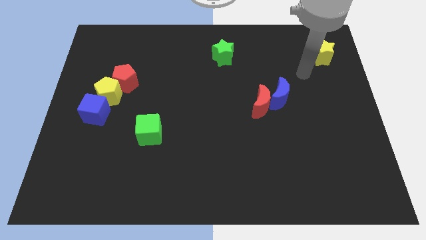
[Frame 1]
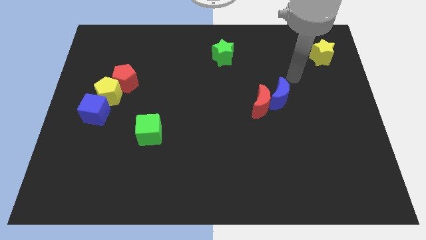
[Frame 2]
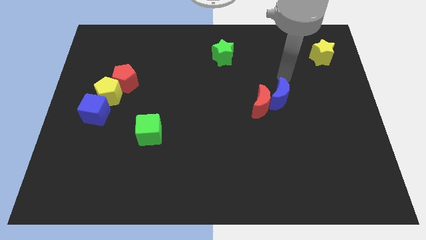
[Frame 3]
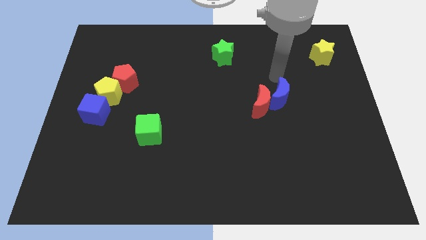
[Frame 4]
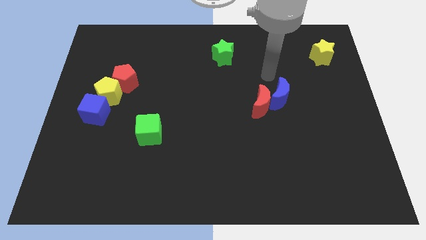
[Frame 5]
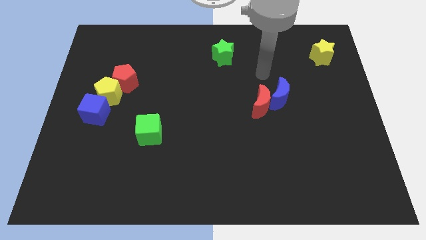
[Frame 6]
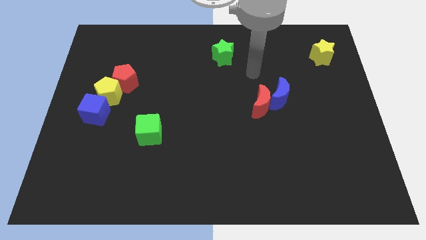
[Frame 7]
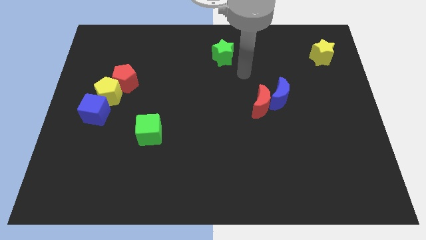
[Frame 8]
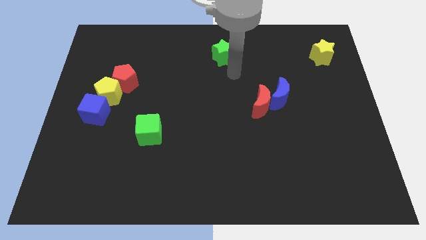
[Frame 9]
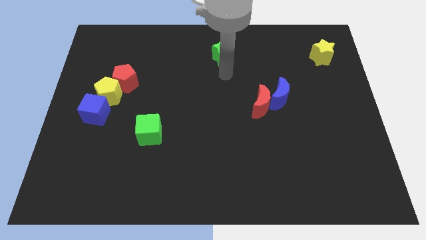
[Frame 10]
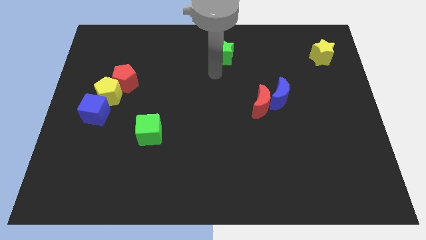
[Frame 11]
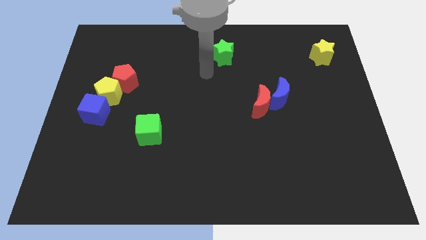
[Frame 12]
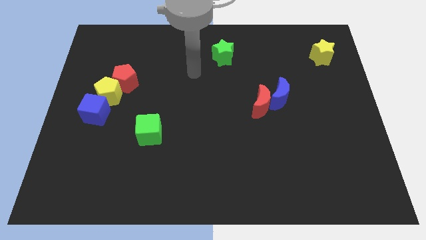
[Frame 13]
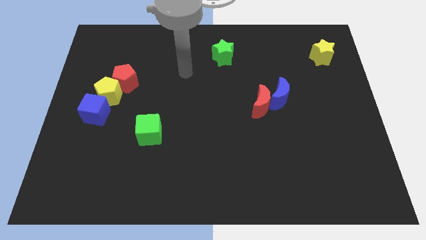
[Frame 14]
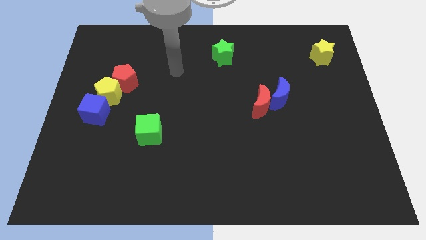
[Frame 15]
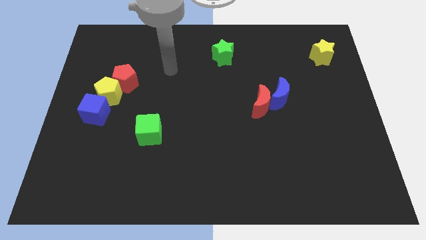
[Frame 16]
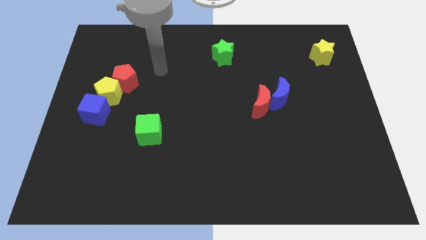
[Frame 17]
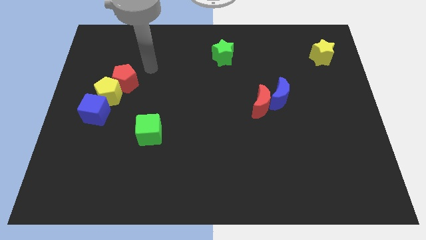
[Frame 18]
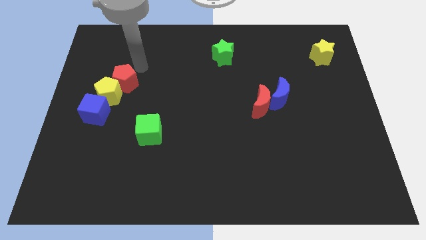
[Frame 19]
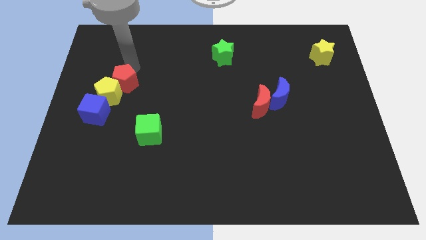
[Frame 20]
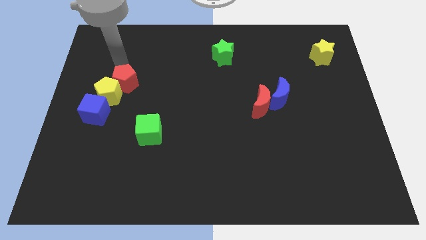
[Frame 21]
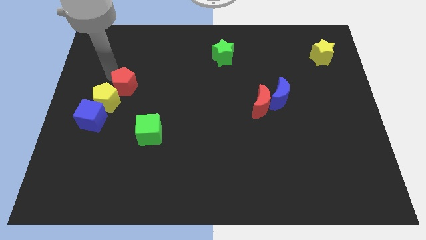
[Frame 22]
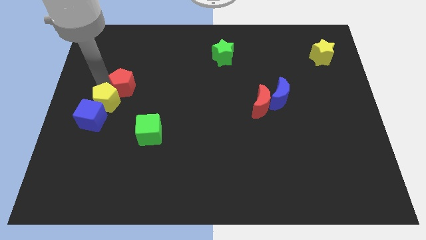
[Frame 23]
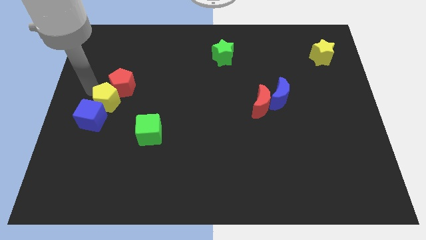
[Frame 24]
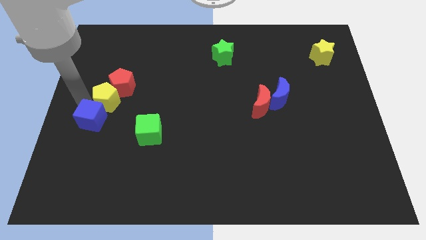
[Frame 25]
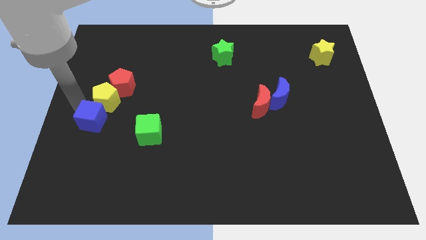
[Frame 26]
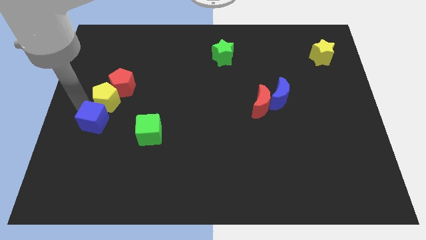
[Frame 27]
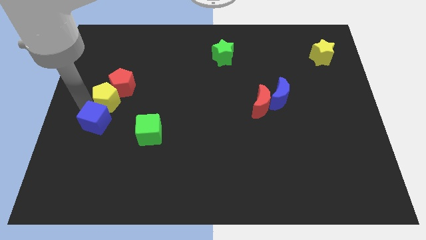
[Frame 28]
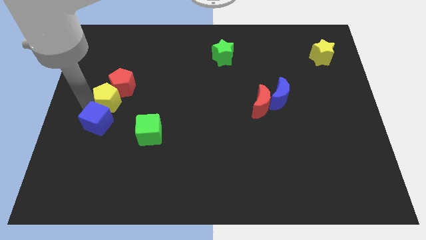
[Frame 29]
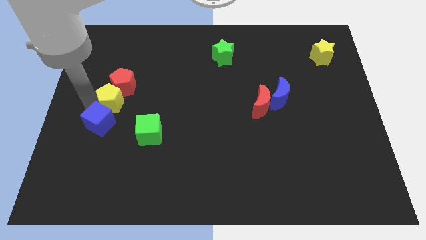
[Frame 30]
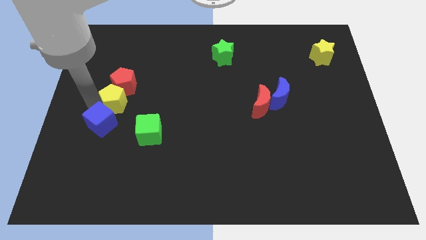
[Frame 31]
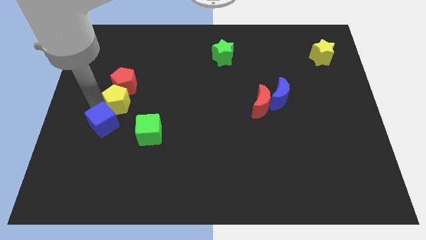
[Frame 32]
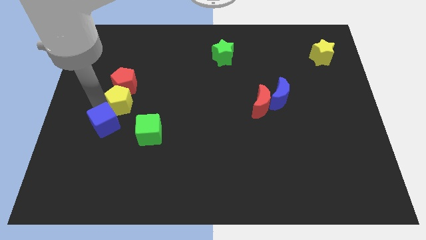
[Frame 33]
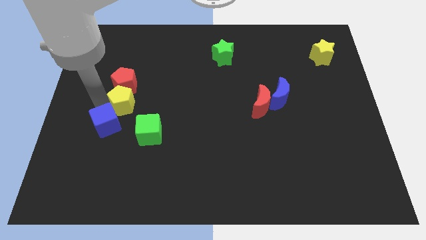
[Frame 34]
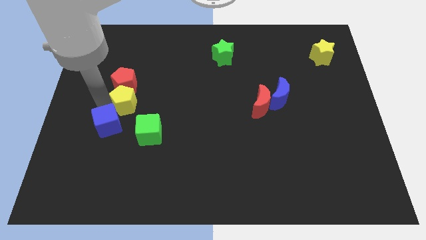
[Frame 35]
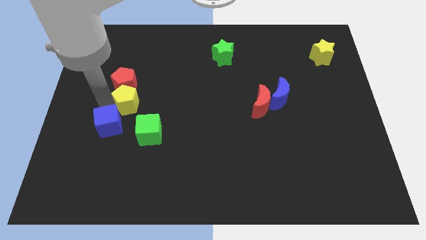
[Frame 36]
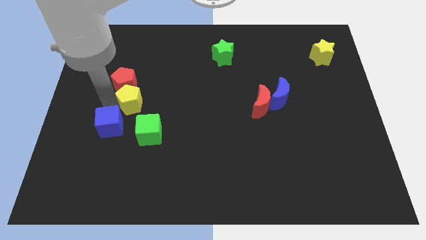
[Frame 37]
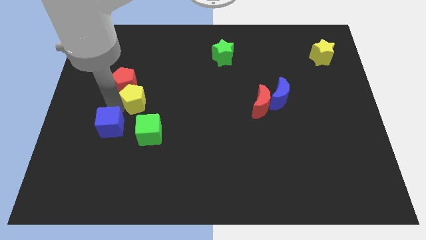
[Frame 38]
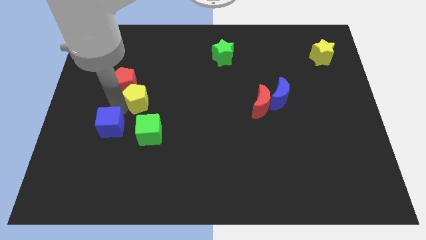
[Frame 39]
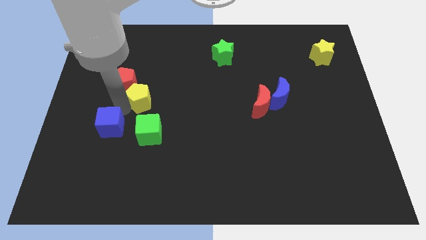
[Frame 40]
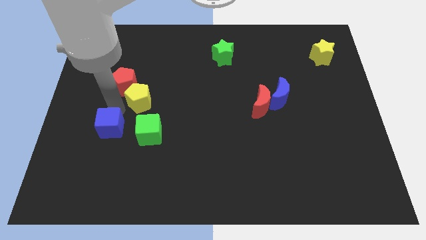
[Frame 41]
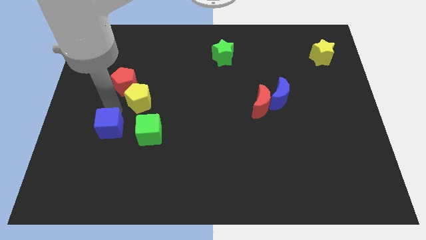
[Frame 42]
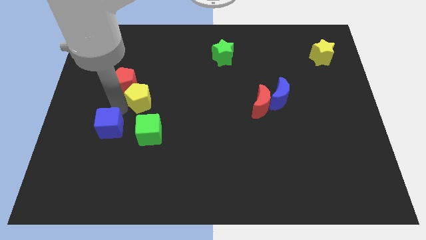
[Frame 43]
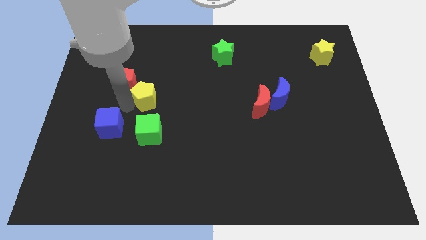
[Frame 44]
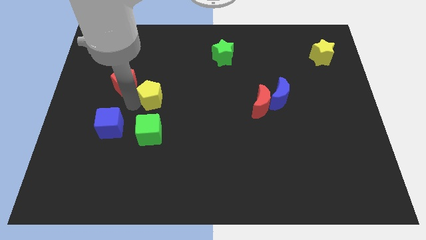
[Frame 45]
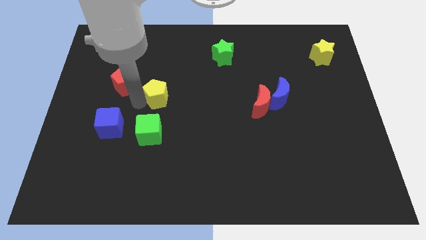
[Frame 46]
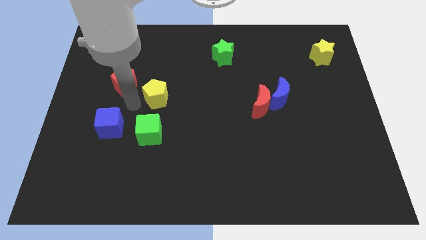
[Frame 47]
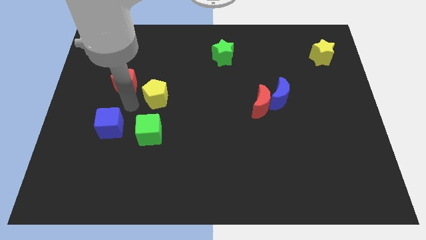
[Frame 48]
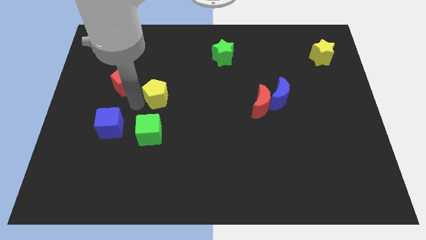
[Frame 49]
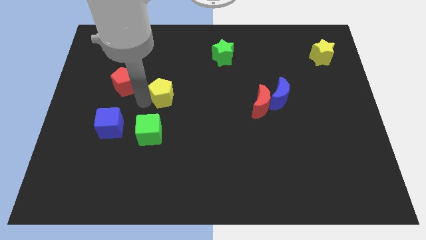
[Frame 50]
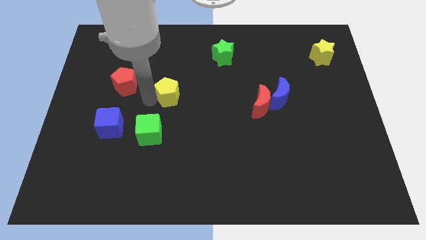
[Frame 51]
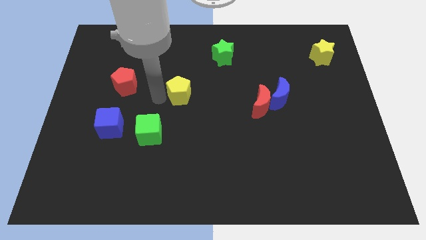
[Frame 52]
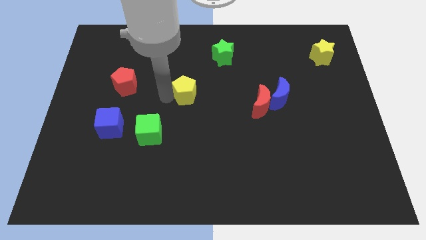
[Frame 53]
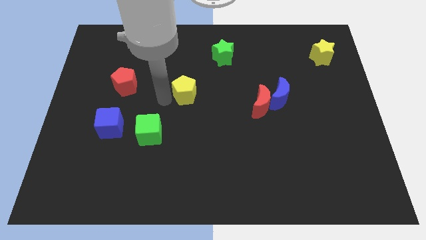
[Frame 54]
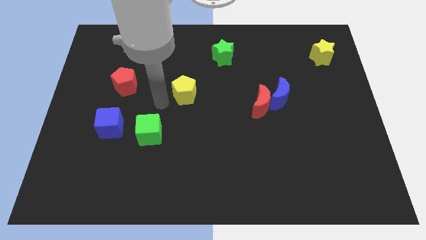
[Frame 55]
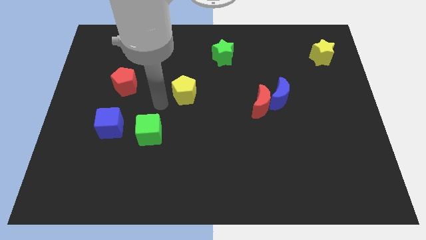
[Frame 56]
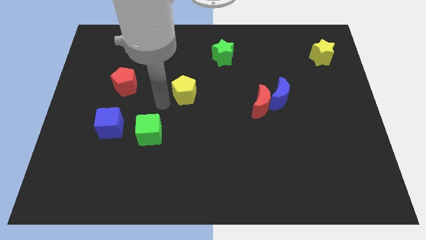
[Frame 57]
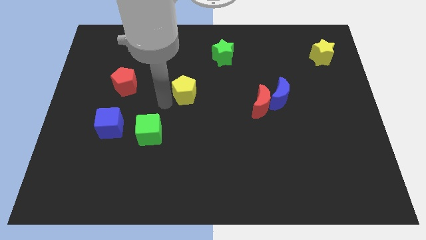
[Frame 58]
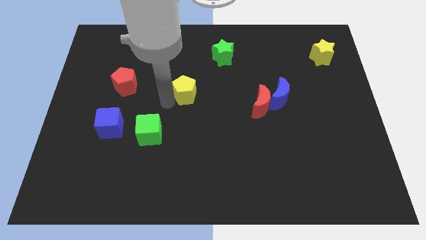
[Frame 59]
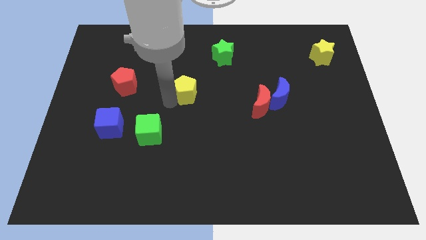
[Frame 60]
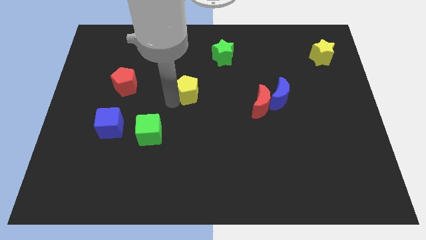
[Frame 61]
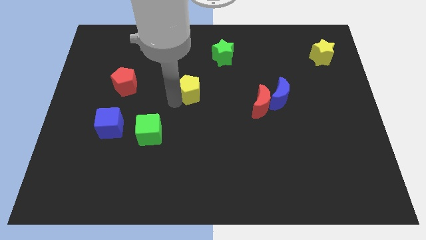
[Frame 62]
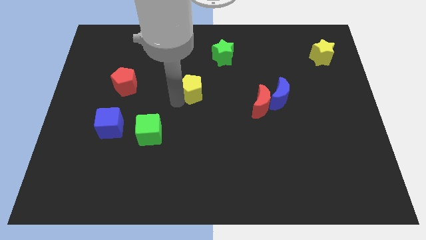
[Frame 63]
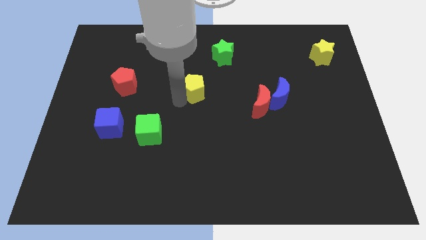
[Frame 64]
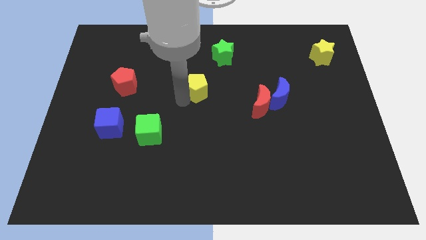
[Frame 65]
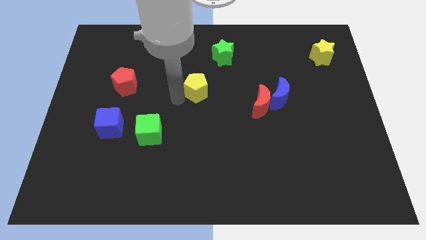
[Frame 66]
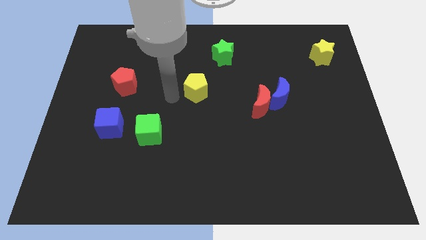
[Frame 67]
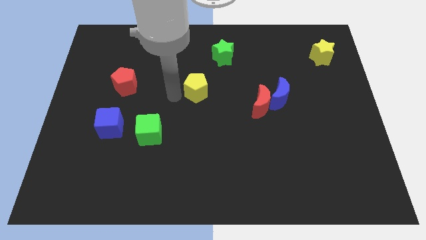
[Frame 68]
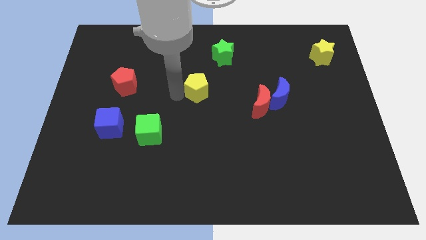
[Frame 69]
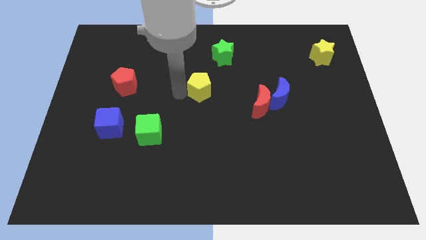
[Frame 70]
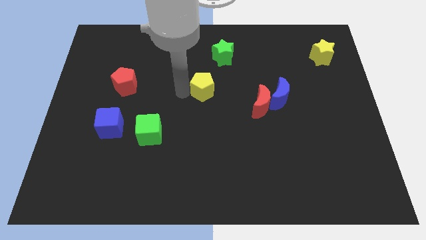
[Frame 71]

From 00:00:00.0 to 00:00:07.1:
move the yellow pentagon to the bottom side of the green star
